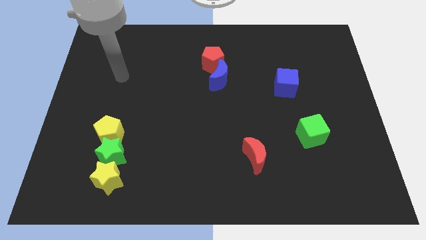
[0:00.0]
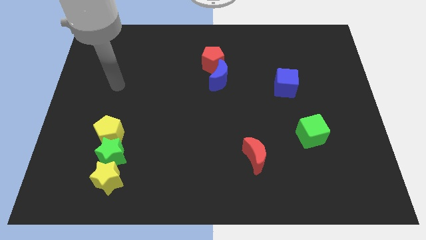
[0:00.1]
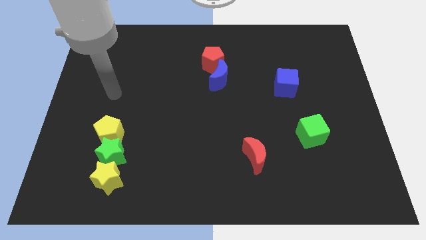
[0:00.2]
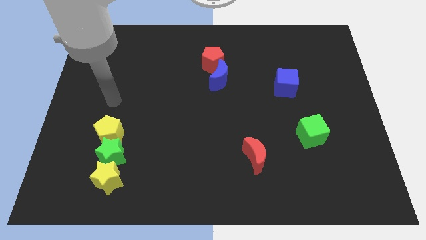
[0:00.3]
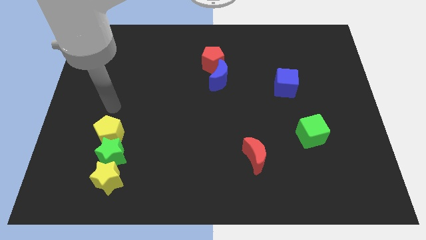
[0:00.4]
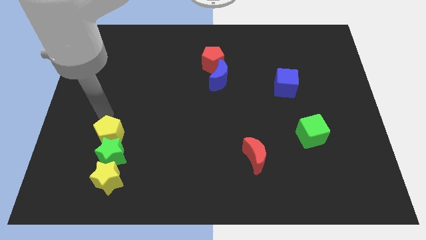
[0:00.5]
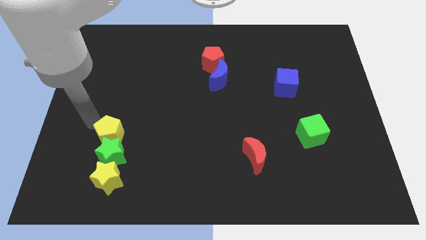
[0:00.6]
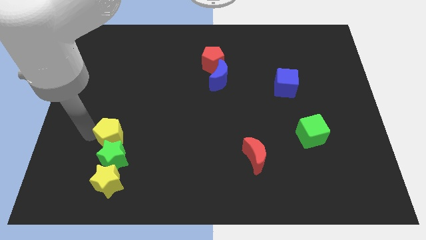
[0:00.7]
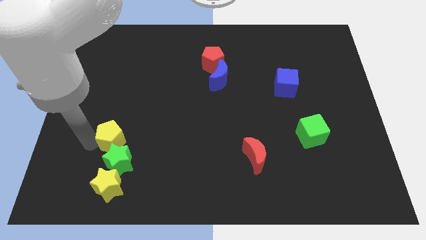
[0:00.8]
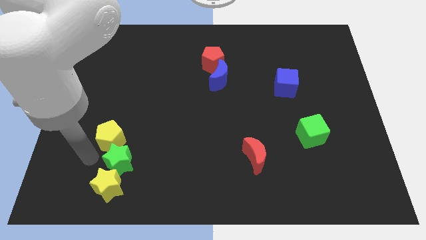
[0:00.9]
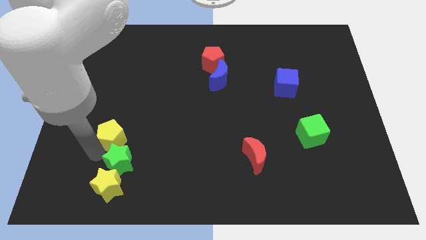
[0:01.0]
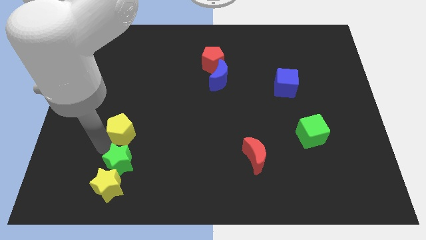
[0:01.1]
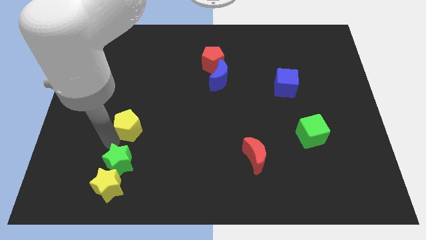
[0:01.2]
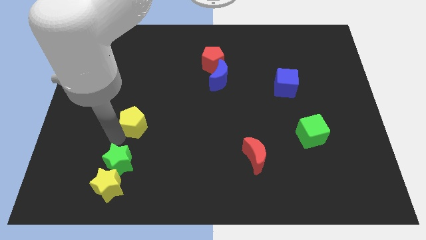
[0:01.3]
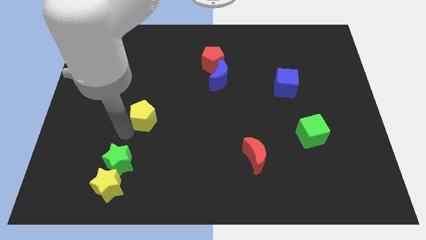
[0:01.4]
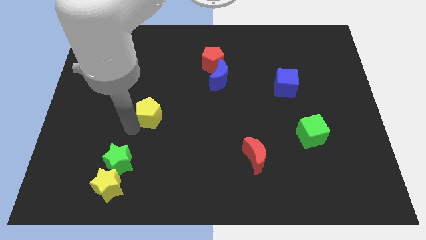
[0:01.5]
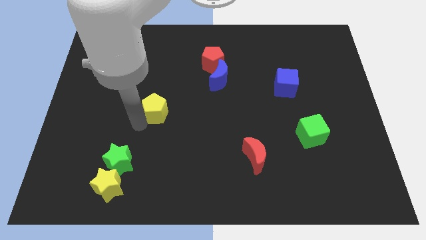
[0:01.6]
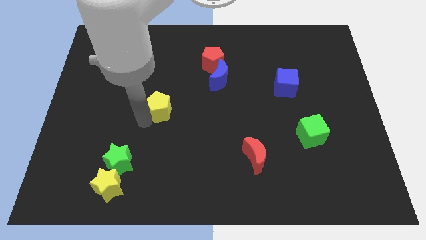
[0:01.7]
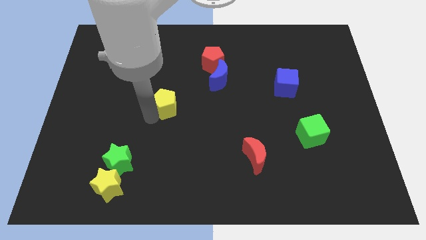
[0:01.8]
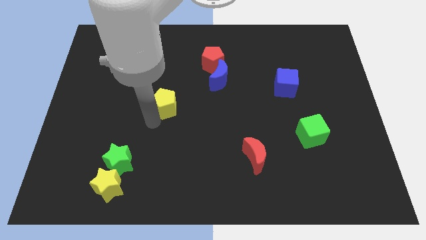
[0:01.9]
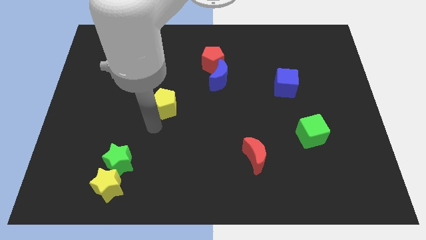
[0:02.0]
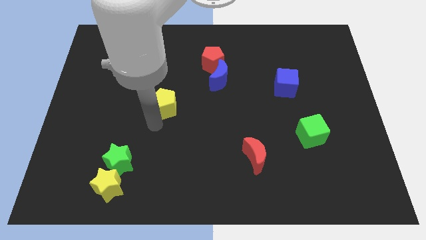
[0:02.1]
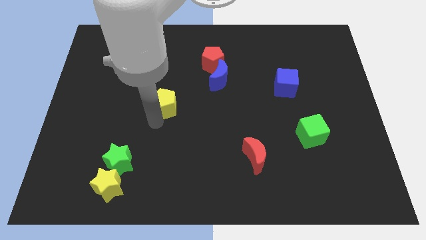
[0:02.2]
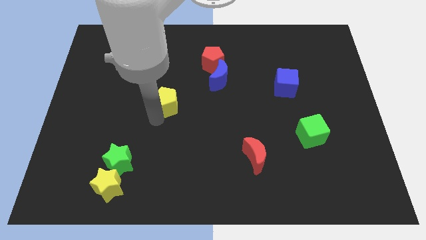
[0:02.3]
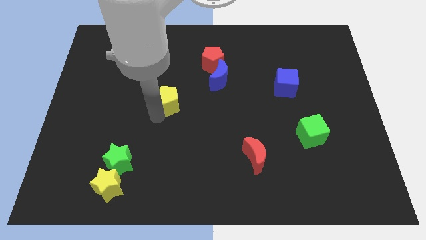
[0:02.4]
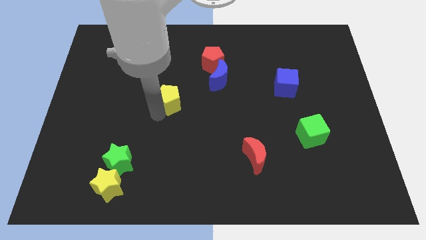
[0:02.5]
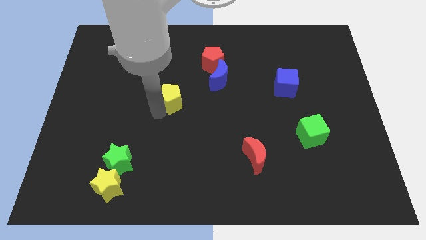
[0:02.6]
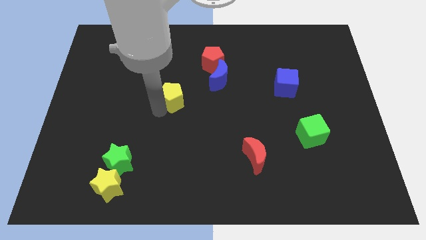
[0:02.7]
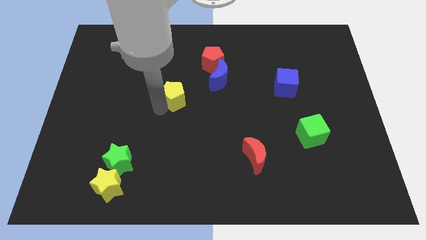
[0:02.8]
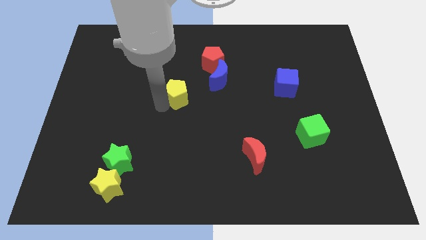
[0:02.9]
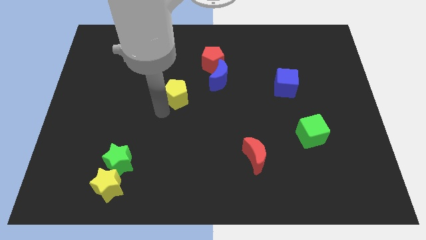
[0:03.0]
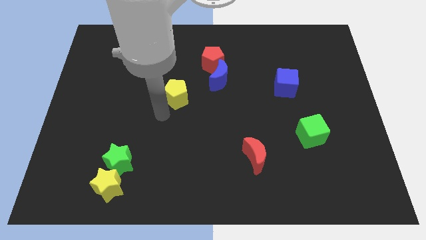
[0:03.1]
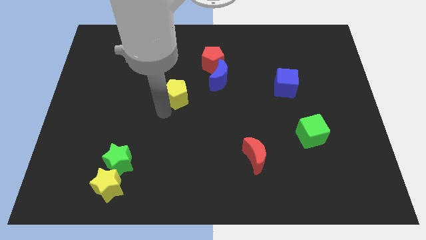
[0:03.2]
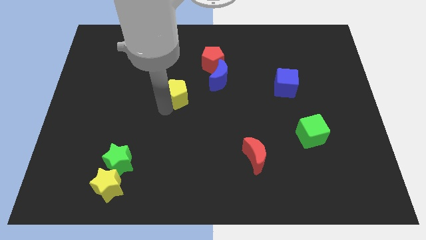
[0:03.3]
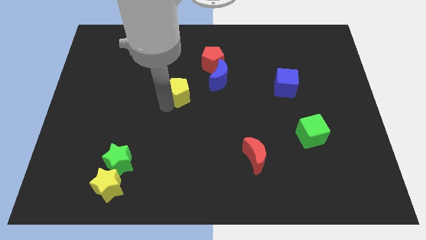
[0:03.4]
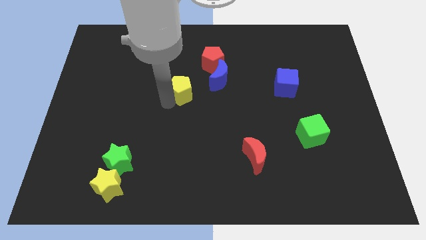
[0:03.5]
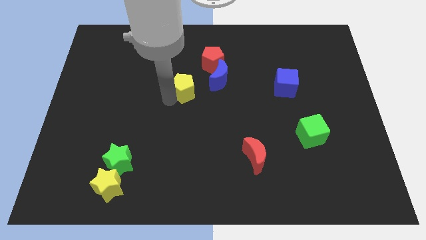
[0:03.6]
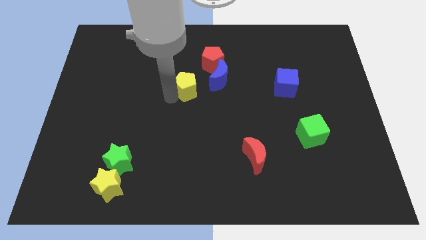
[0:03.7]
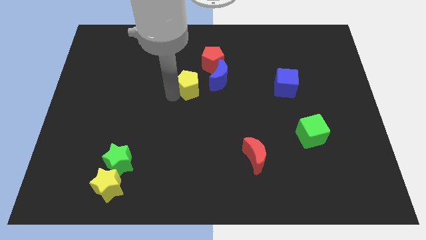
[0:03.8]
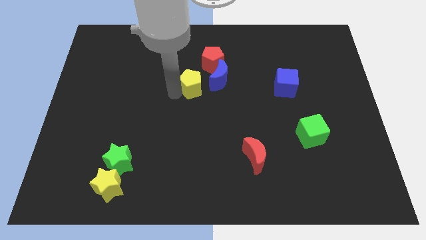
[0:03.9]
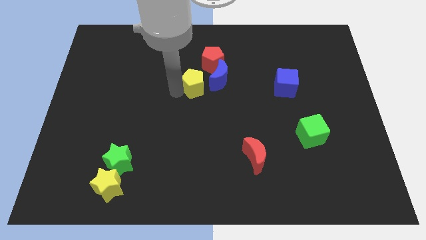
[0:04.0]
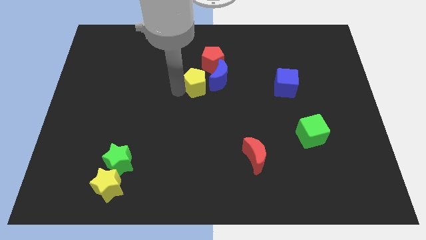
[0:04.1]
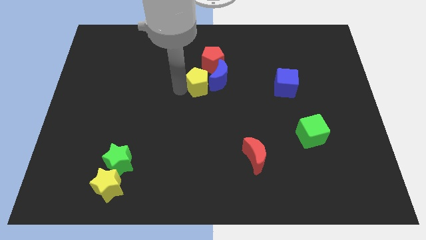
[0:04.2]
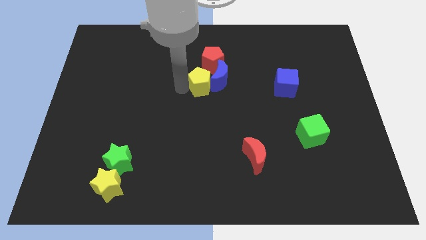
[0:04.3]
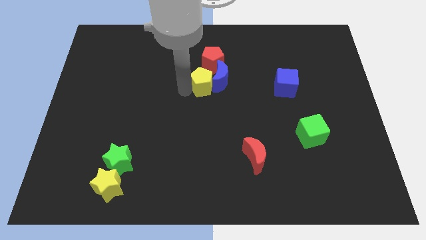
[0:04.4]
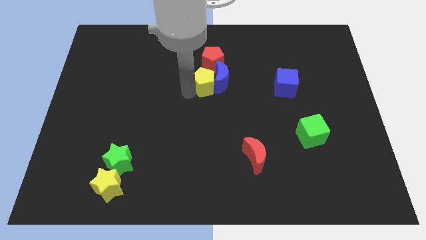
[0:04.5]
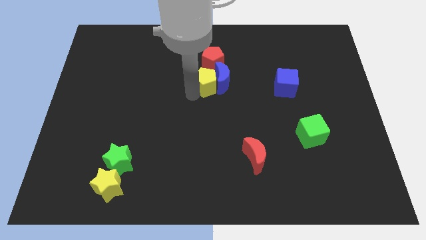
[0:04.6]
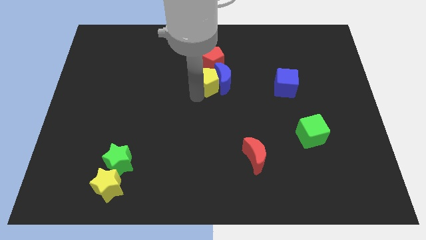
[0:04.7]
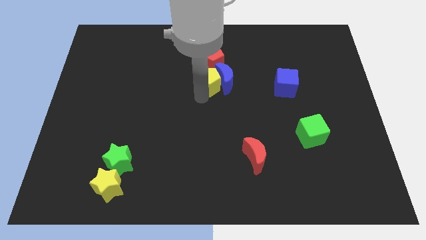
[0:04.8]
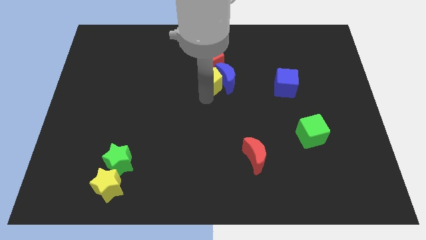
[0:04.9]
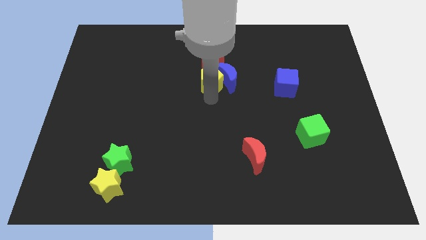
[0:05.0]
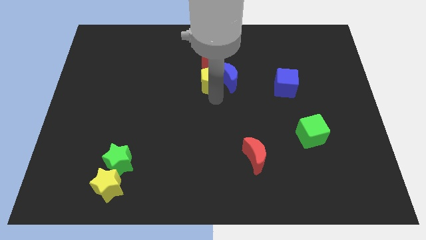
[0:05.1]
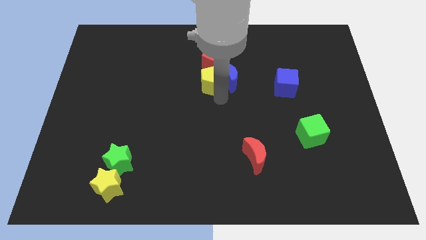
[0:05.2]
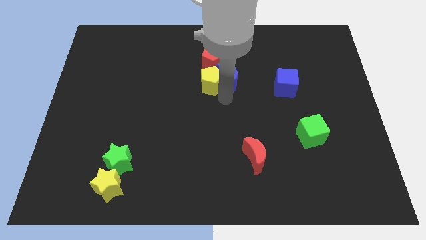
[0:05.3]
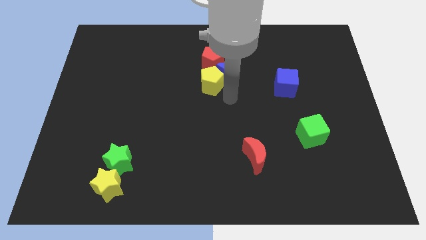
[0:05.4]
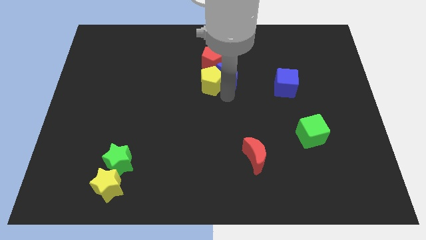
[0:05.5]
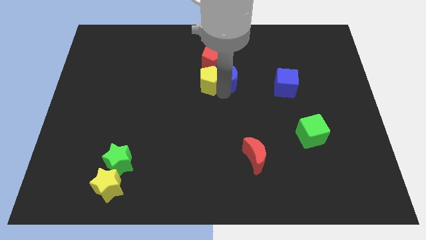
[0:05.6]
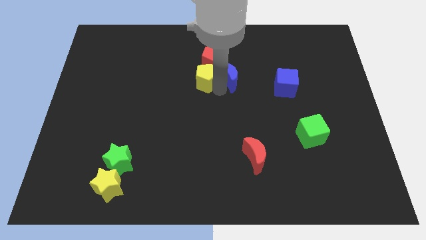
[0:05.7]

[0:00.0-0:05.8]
move the yellow pentagon close to the red pentagon
